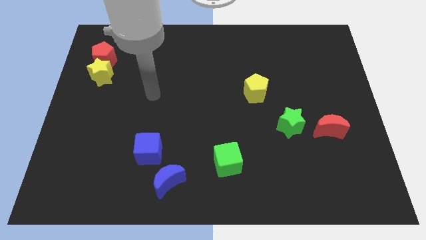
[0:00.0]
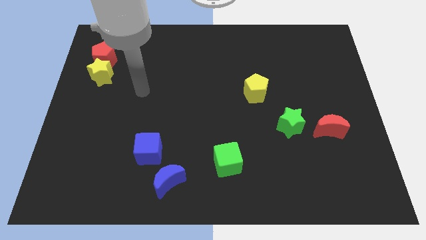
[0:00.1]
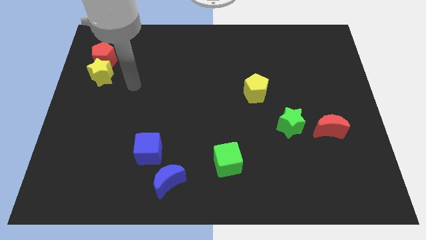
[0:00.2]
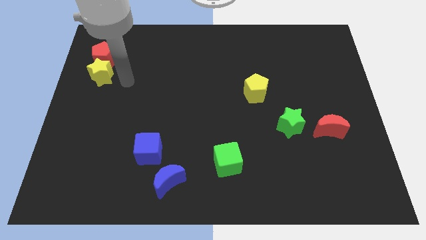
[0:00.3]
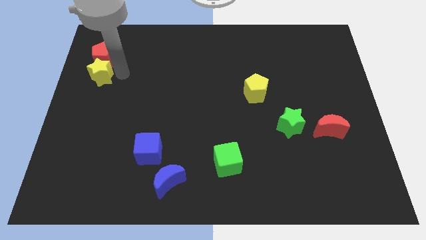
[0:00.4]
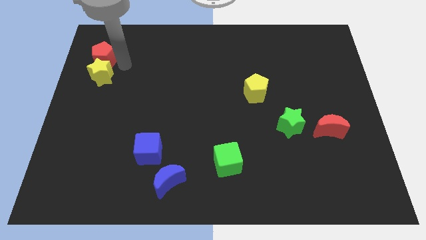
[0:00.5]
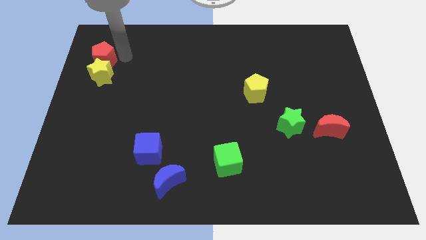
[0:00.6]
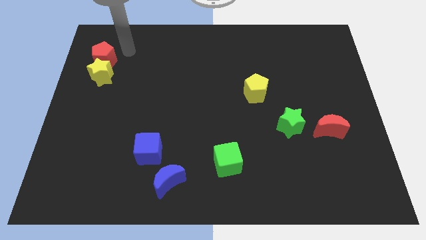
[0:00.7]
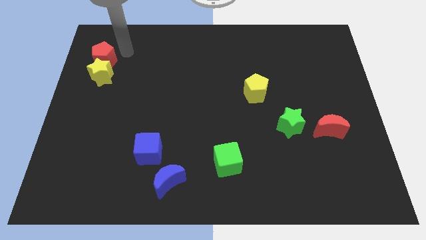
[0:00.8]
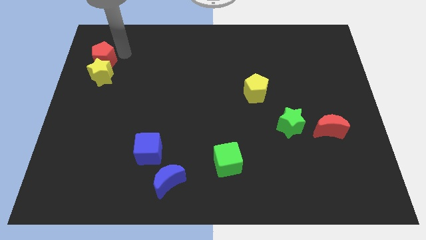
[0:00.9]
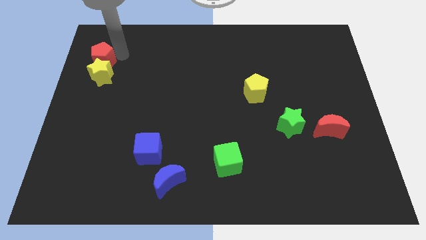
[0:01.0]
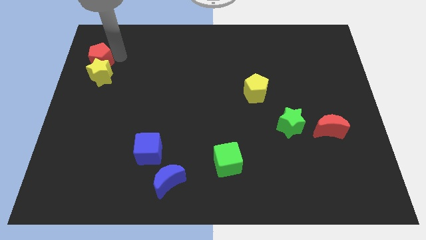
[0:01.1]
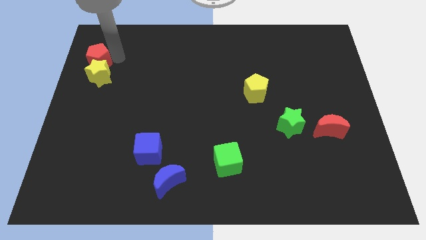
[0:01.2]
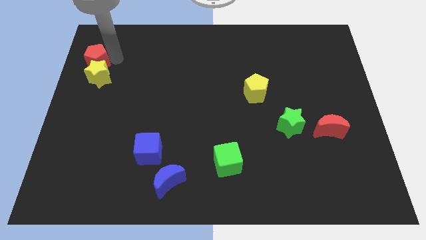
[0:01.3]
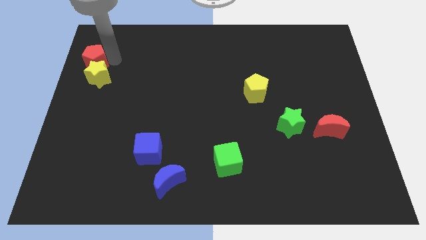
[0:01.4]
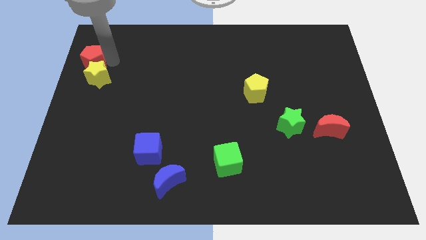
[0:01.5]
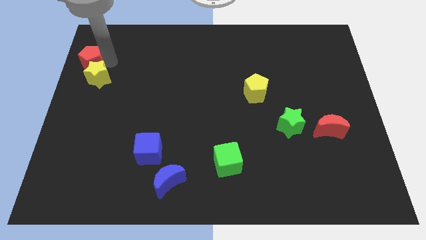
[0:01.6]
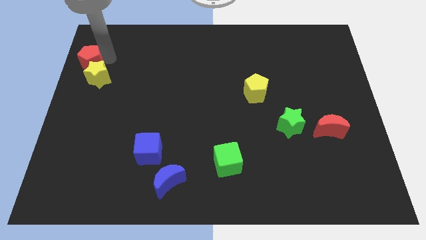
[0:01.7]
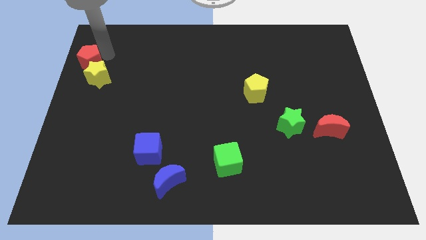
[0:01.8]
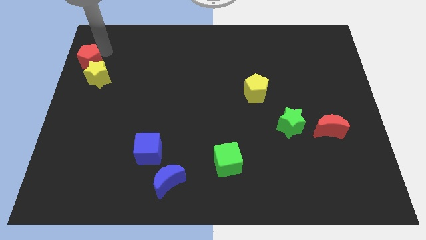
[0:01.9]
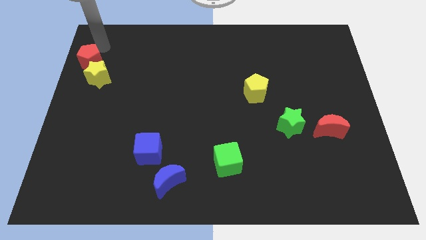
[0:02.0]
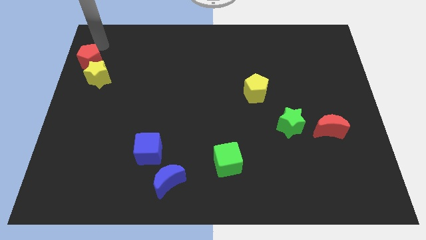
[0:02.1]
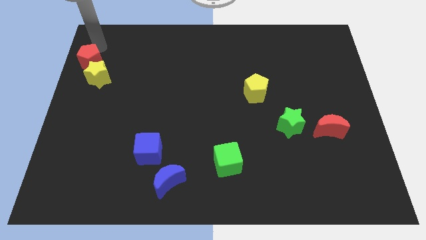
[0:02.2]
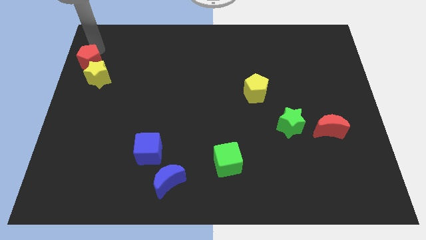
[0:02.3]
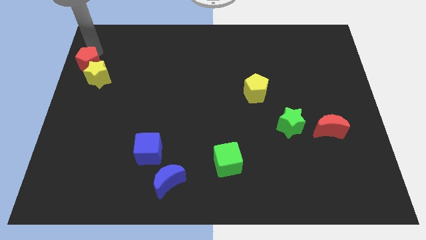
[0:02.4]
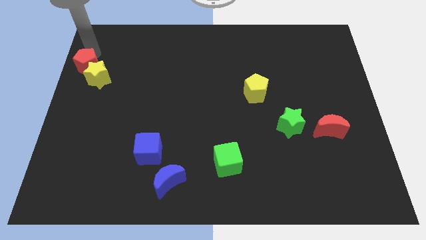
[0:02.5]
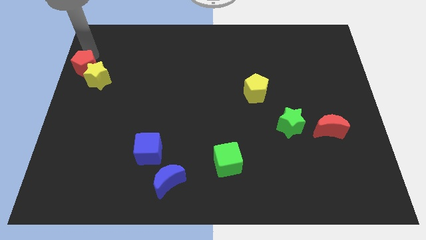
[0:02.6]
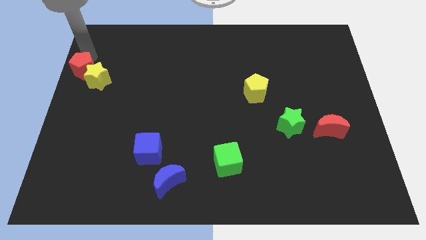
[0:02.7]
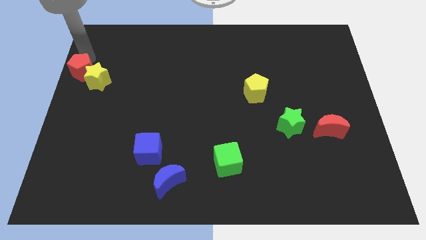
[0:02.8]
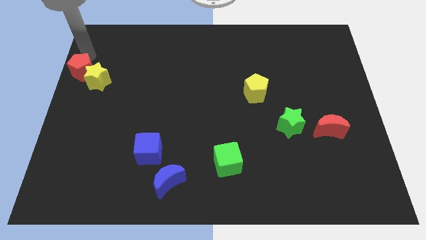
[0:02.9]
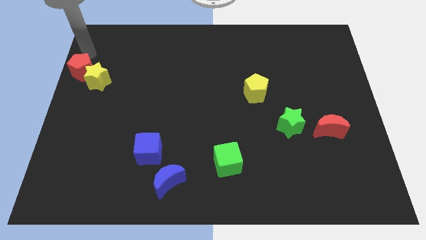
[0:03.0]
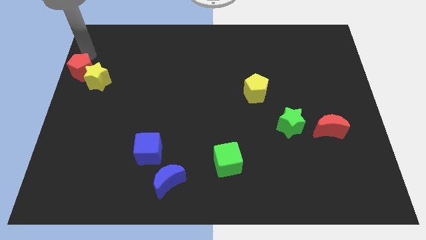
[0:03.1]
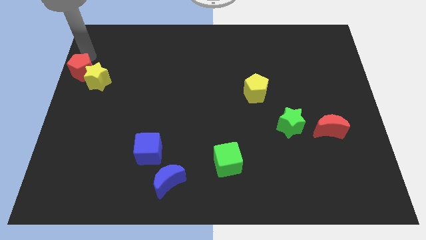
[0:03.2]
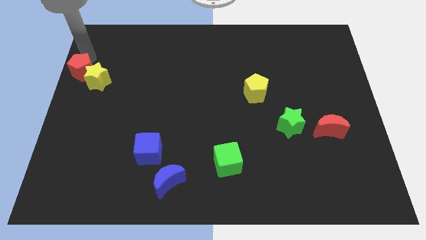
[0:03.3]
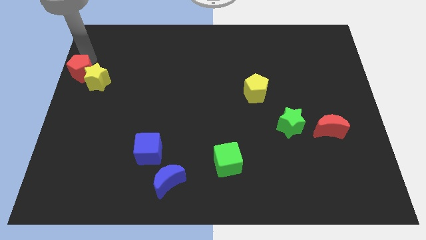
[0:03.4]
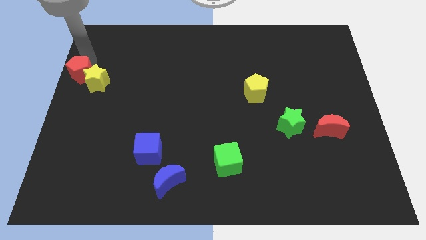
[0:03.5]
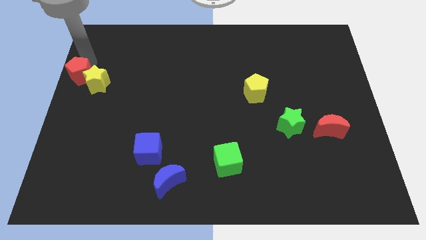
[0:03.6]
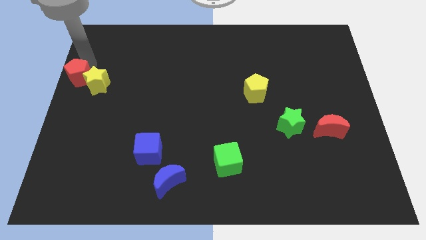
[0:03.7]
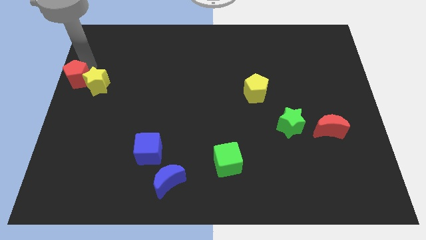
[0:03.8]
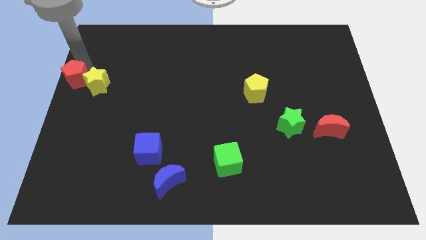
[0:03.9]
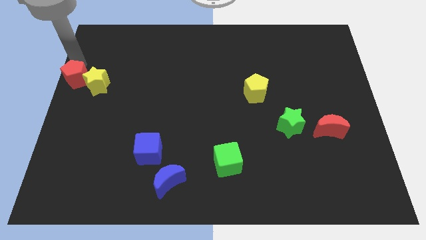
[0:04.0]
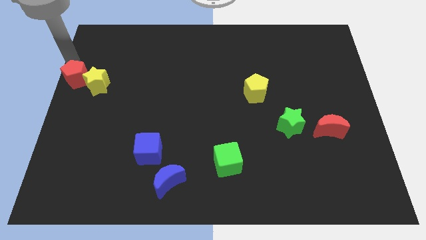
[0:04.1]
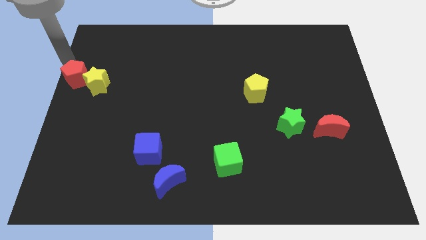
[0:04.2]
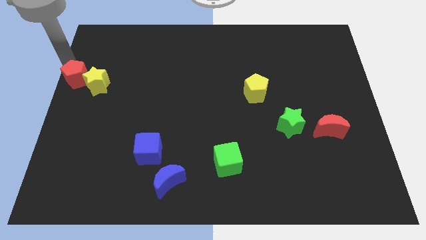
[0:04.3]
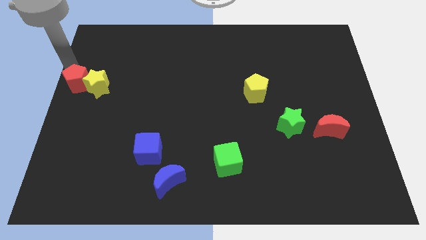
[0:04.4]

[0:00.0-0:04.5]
slide the red pentagon down a little

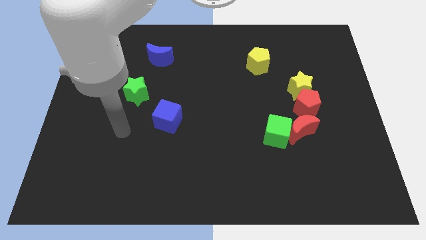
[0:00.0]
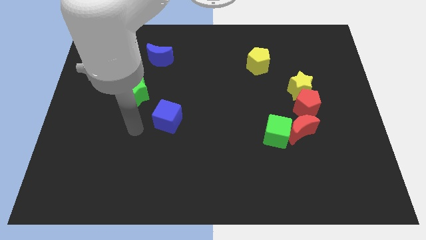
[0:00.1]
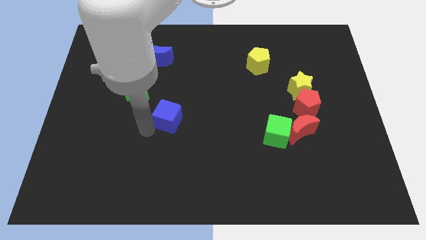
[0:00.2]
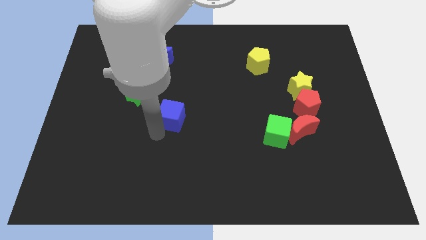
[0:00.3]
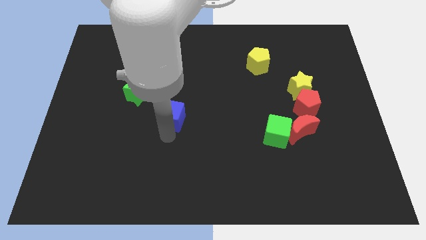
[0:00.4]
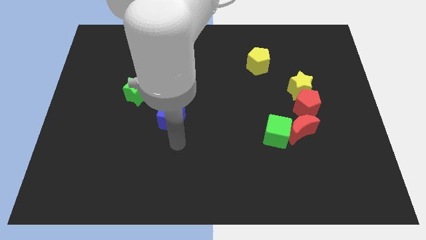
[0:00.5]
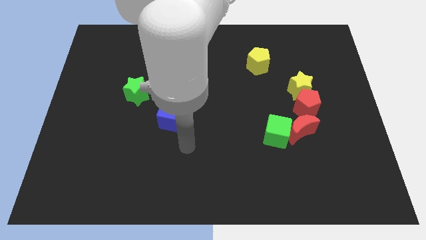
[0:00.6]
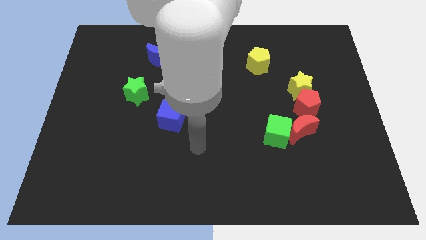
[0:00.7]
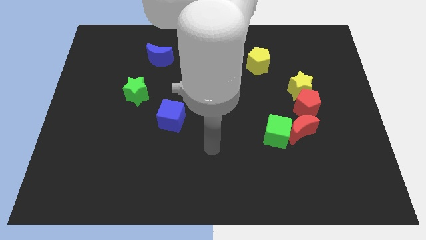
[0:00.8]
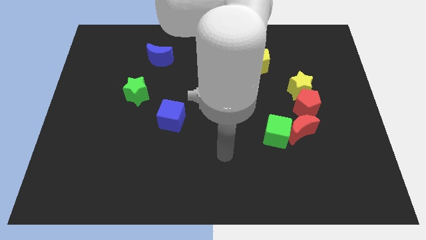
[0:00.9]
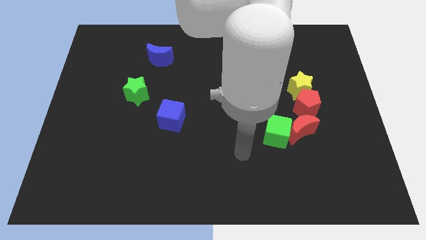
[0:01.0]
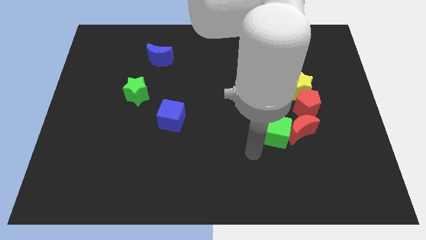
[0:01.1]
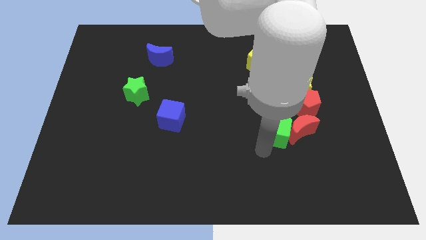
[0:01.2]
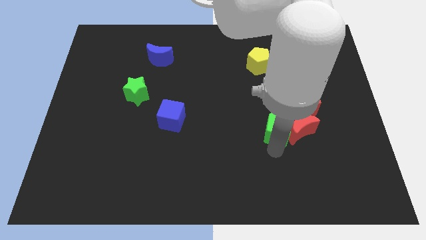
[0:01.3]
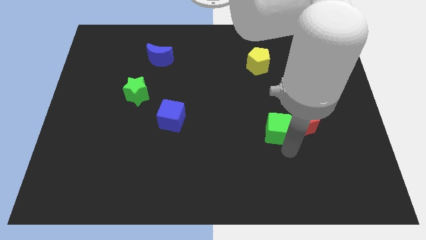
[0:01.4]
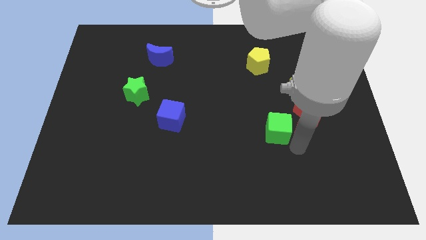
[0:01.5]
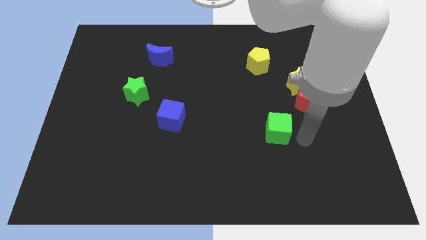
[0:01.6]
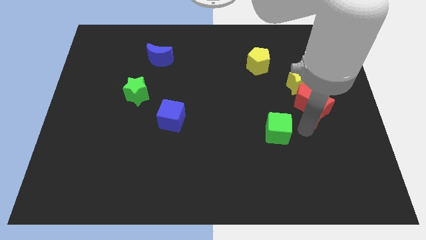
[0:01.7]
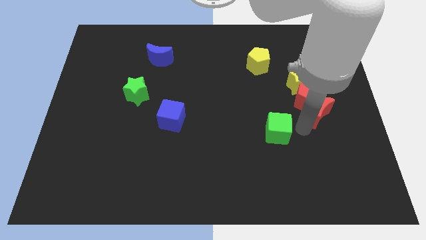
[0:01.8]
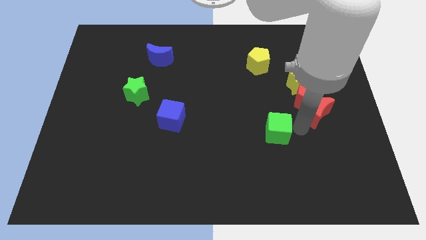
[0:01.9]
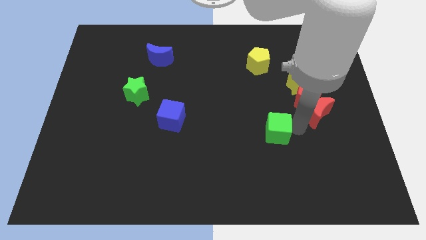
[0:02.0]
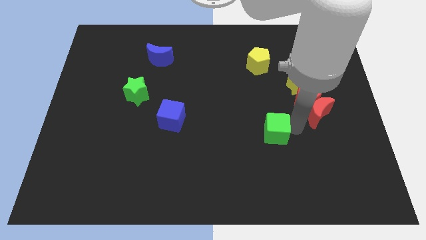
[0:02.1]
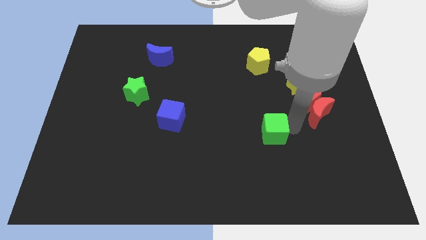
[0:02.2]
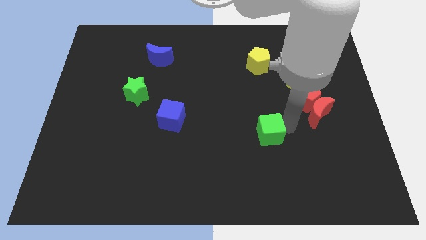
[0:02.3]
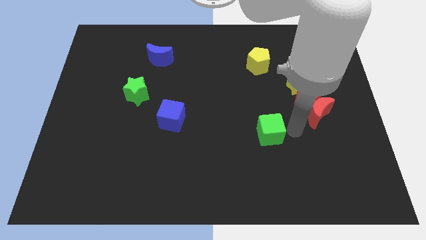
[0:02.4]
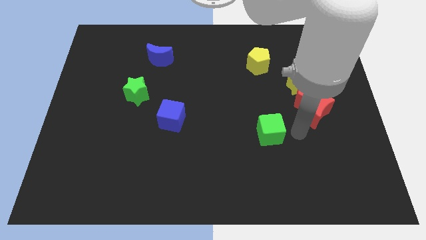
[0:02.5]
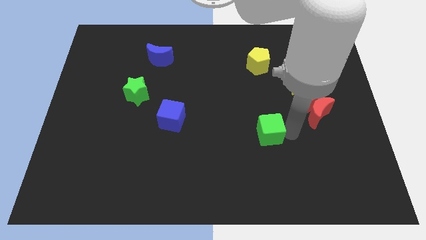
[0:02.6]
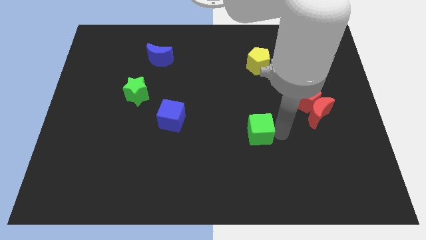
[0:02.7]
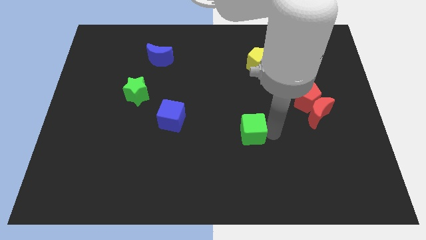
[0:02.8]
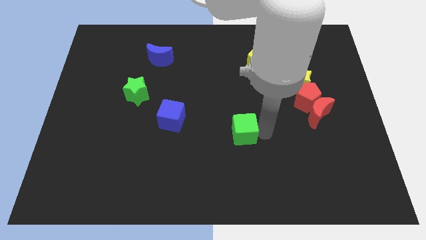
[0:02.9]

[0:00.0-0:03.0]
push the green cube somewhat to the left

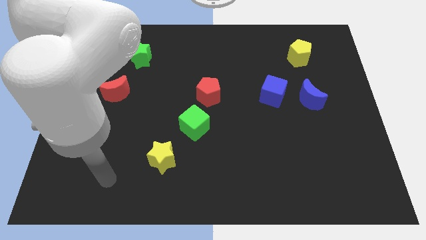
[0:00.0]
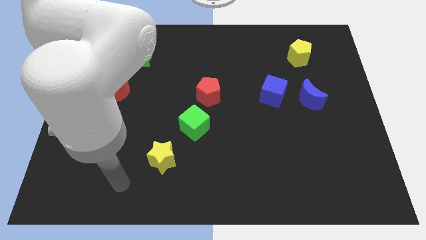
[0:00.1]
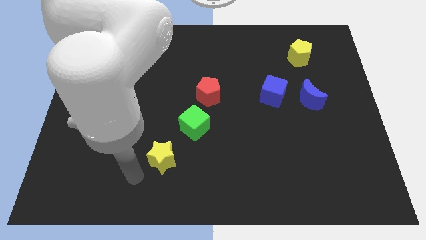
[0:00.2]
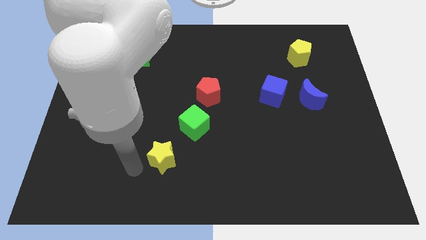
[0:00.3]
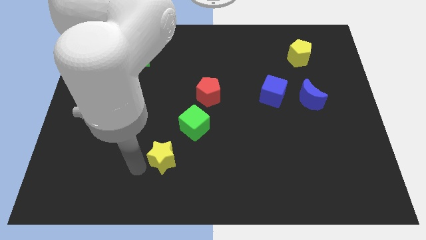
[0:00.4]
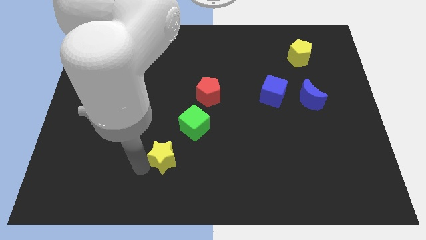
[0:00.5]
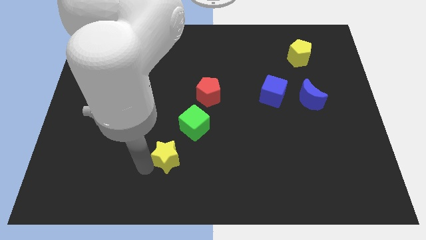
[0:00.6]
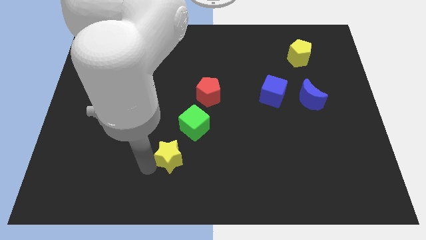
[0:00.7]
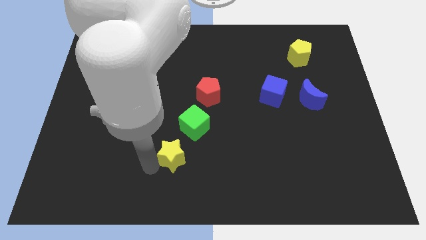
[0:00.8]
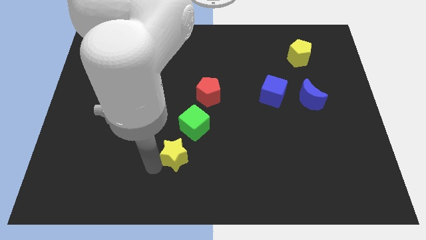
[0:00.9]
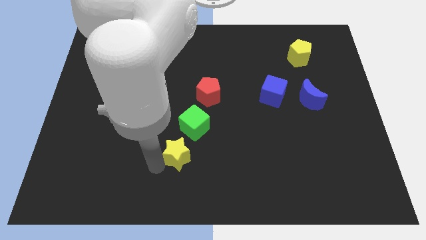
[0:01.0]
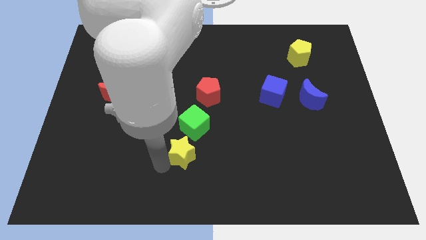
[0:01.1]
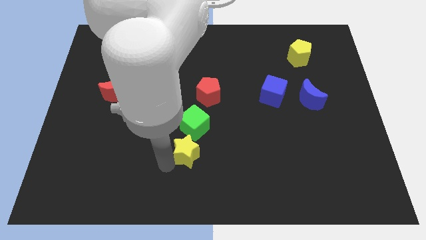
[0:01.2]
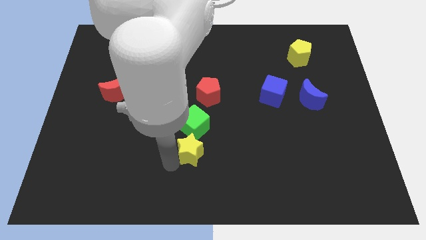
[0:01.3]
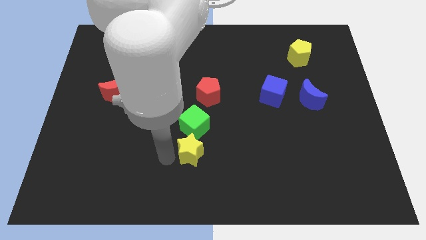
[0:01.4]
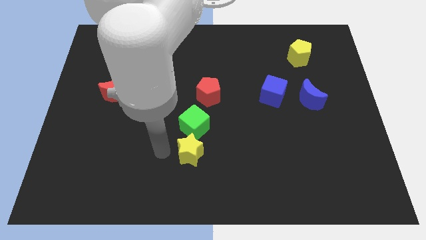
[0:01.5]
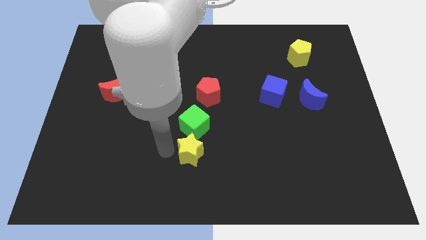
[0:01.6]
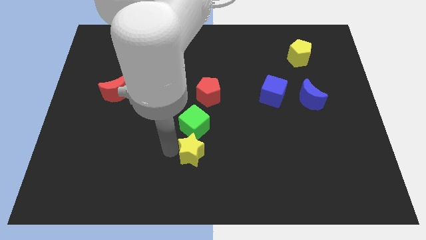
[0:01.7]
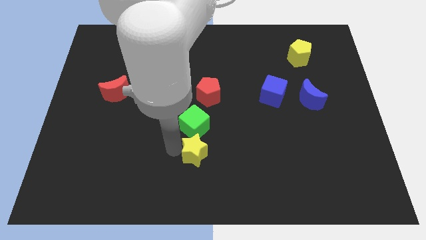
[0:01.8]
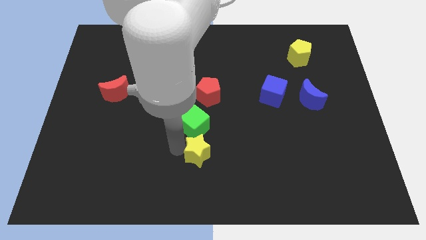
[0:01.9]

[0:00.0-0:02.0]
slide the yellow star to the right slightly
